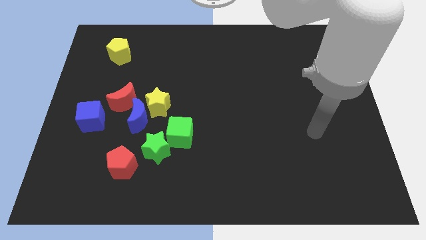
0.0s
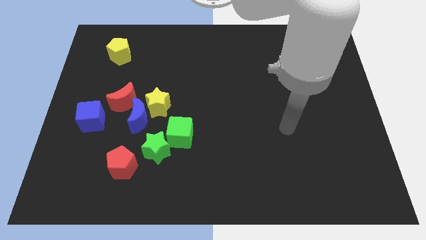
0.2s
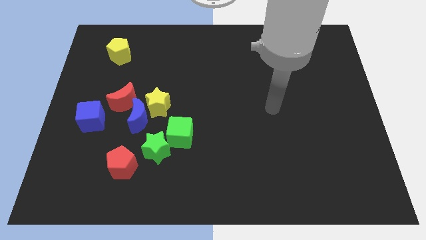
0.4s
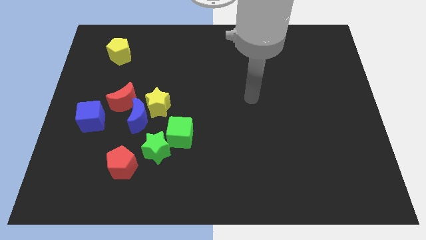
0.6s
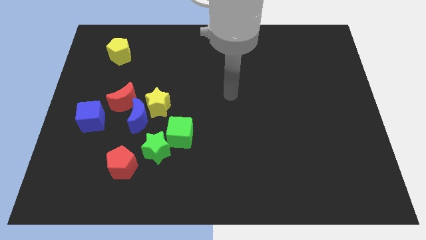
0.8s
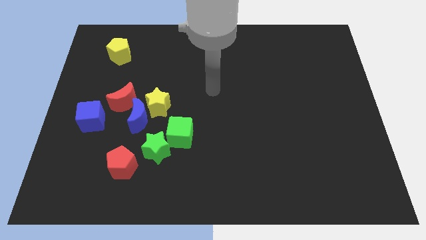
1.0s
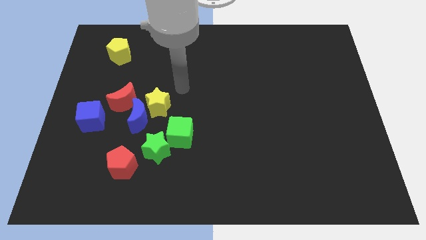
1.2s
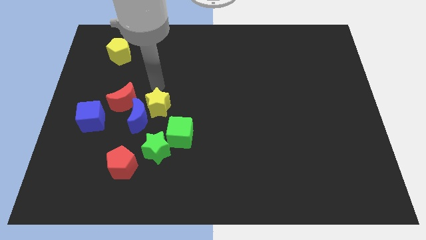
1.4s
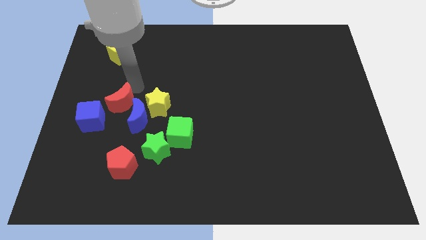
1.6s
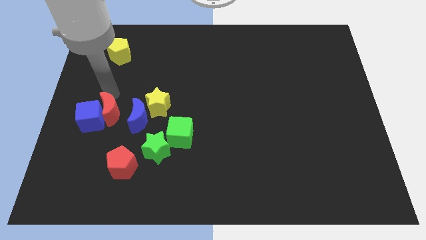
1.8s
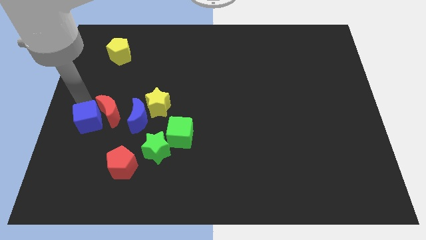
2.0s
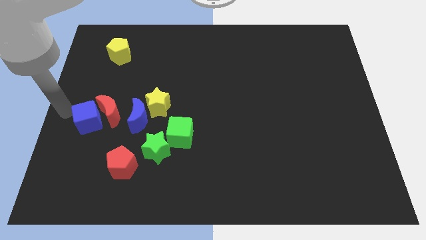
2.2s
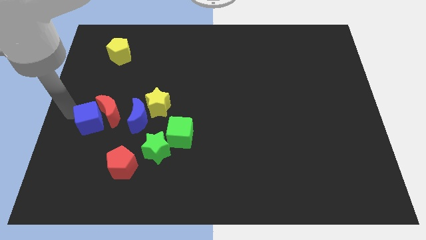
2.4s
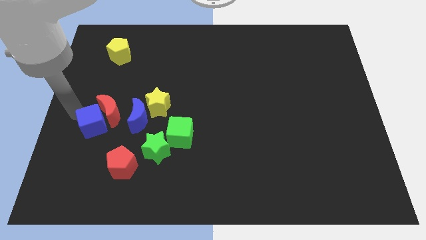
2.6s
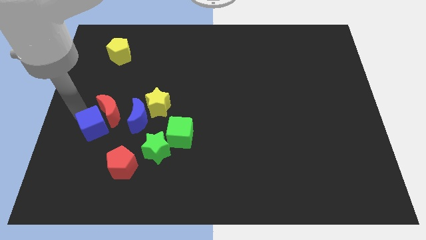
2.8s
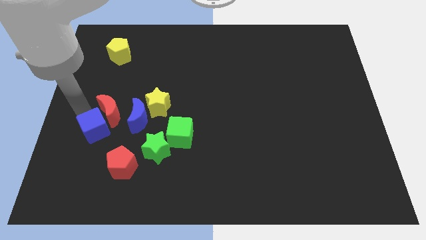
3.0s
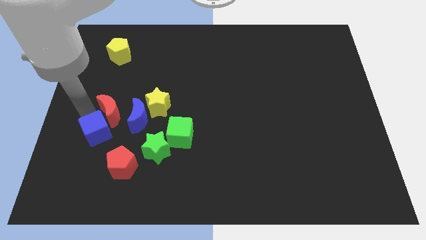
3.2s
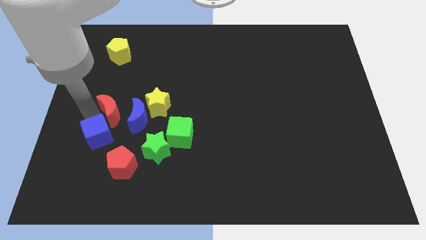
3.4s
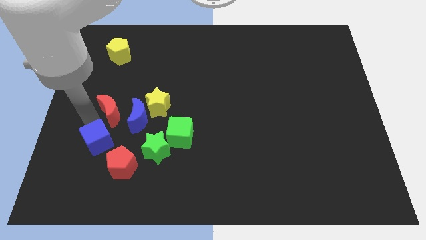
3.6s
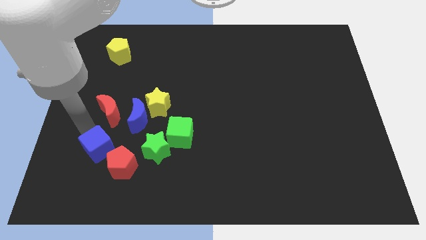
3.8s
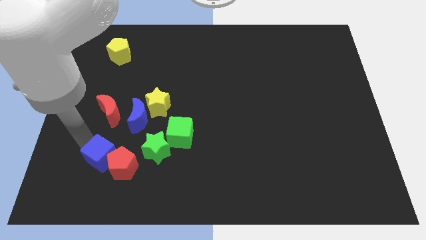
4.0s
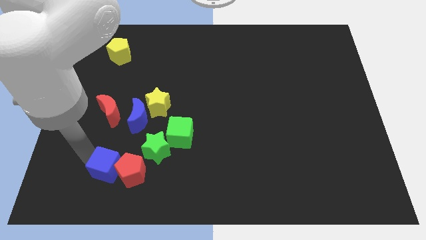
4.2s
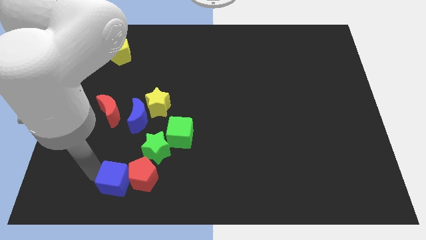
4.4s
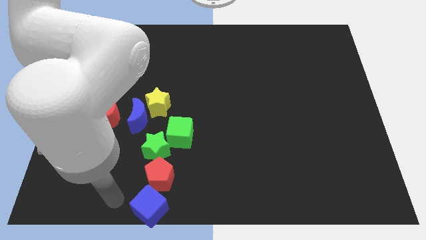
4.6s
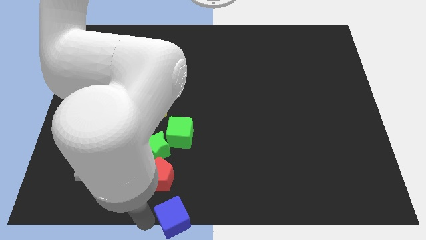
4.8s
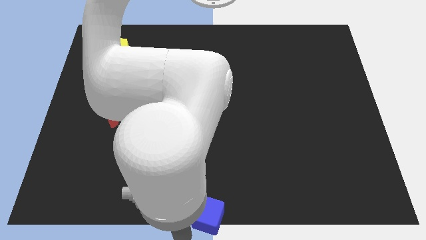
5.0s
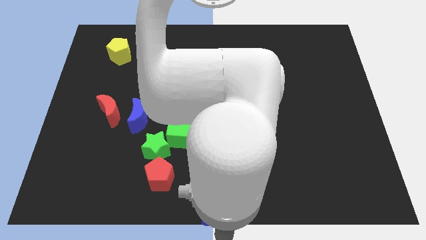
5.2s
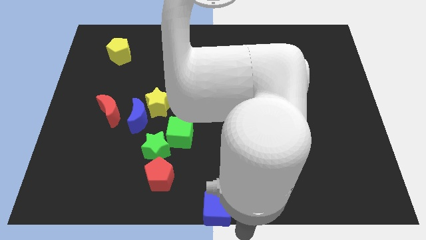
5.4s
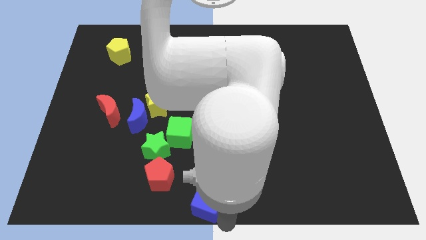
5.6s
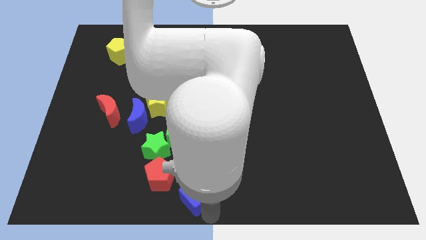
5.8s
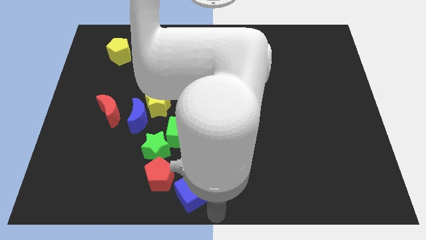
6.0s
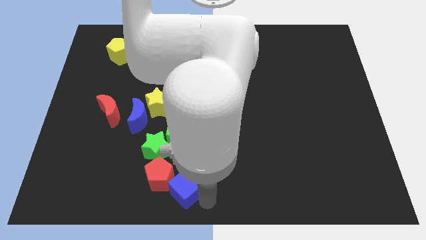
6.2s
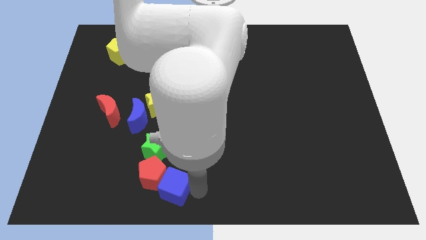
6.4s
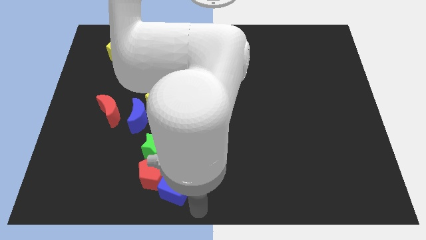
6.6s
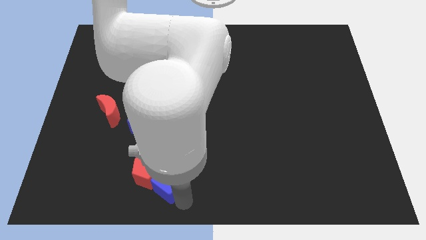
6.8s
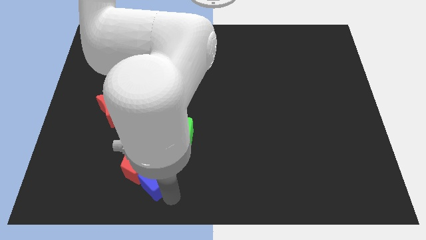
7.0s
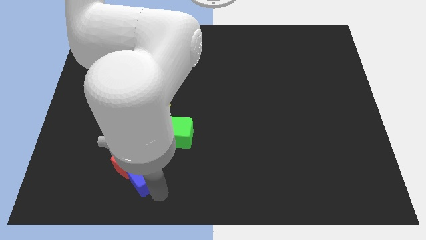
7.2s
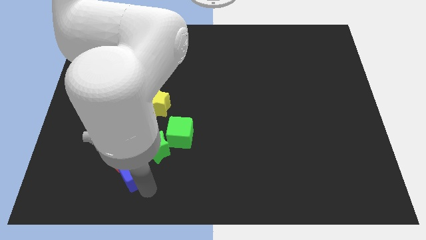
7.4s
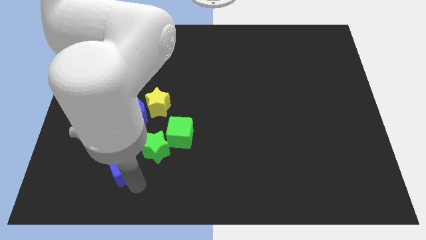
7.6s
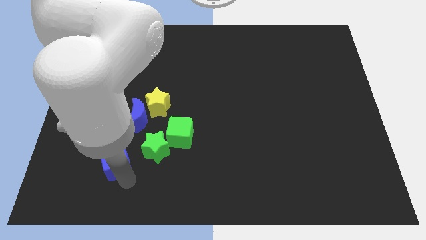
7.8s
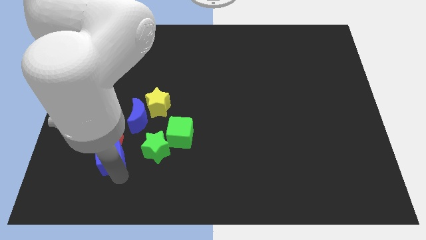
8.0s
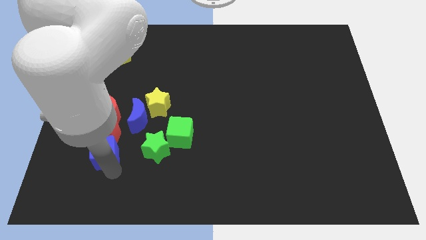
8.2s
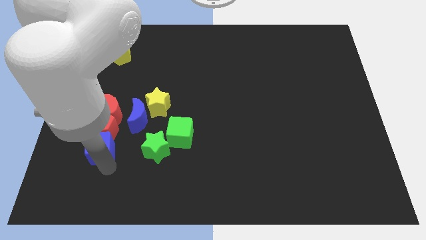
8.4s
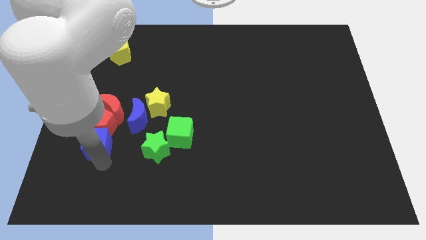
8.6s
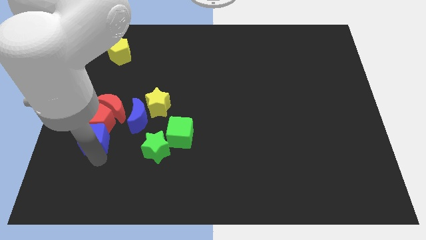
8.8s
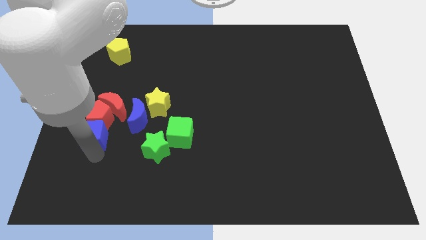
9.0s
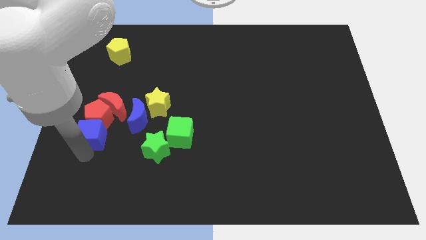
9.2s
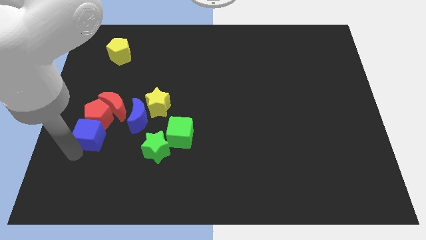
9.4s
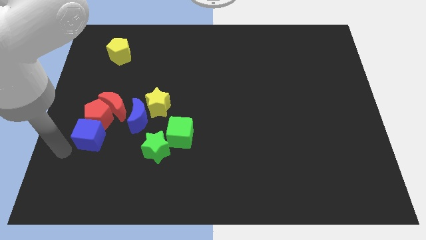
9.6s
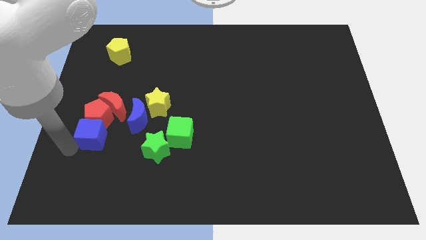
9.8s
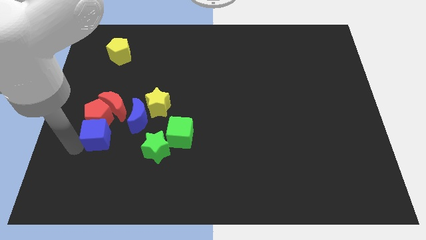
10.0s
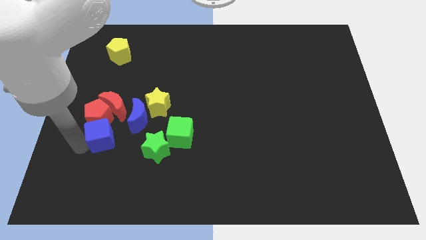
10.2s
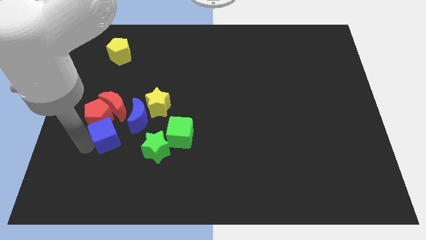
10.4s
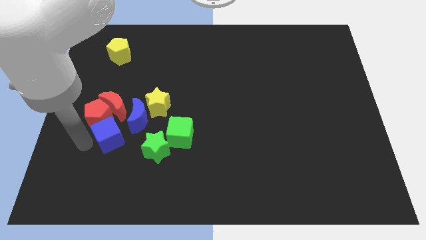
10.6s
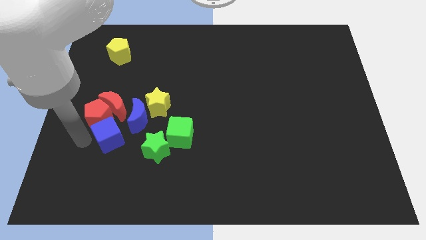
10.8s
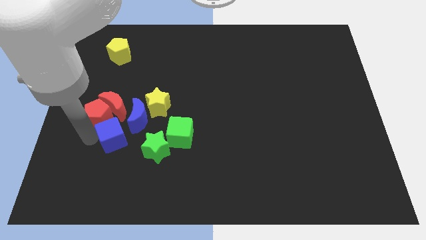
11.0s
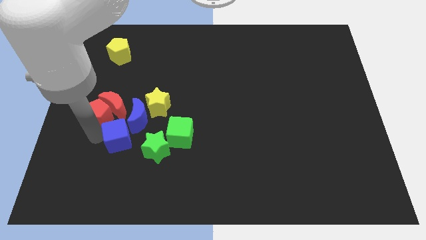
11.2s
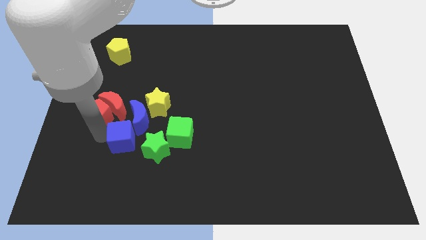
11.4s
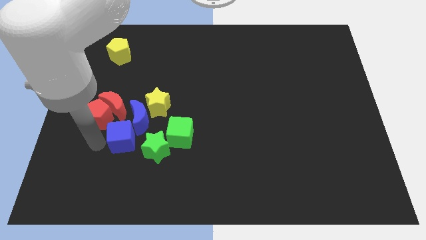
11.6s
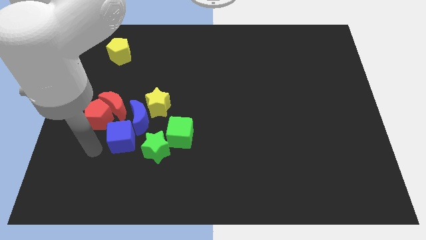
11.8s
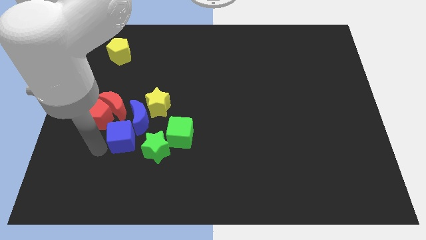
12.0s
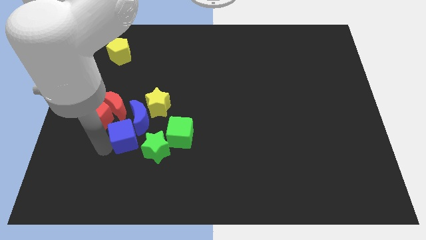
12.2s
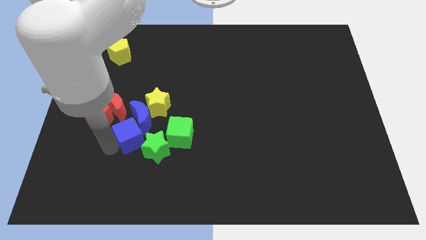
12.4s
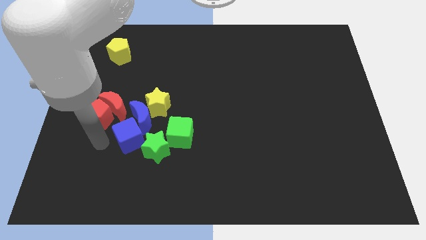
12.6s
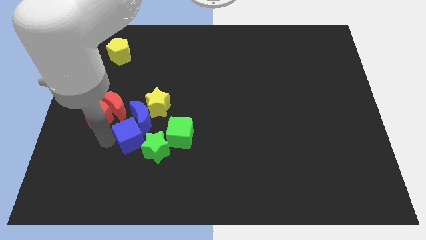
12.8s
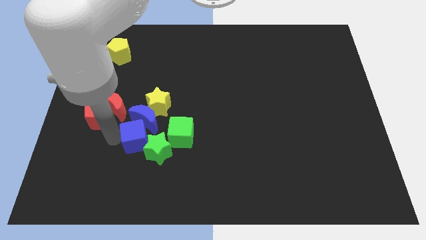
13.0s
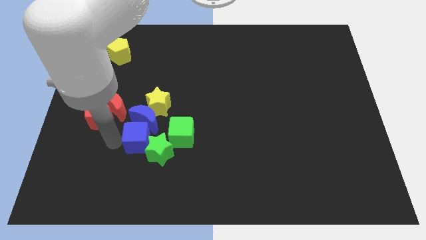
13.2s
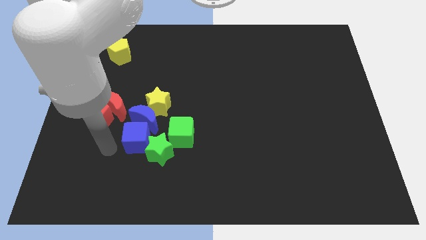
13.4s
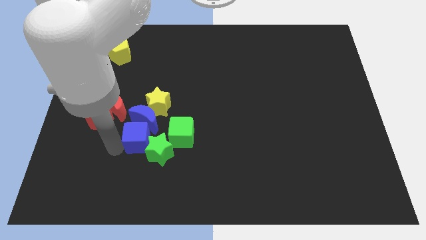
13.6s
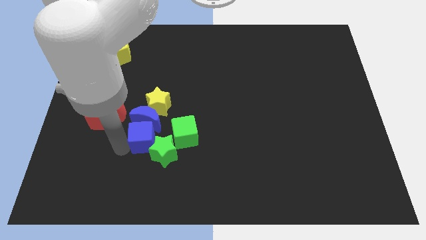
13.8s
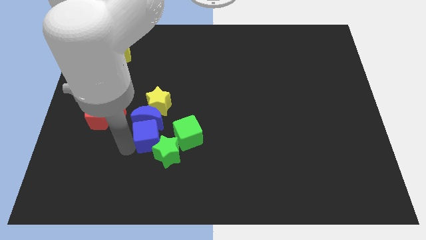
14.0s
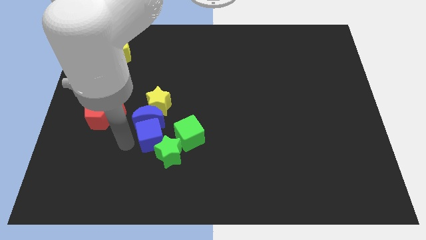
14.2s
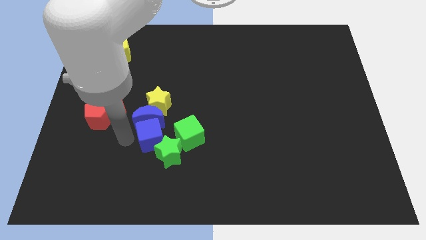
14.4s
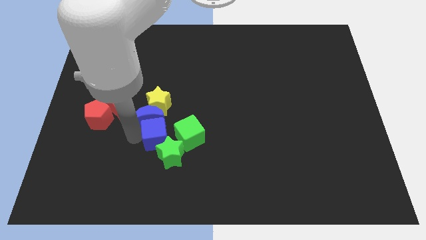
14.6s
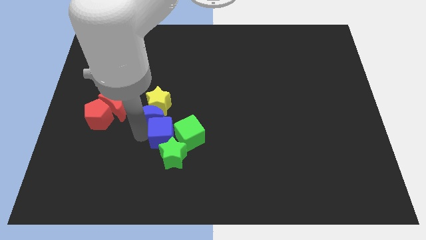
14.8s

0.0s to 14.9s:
move the blue cube to the green cube

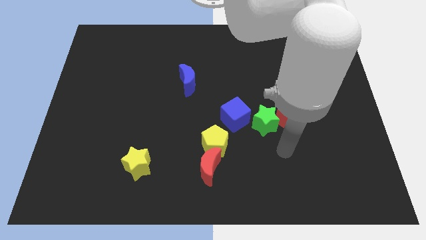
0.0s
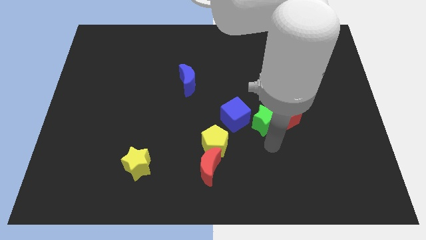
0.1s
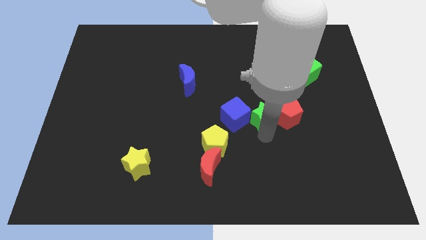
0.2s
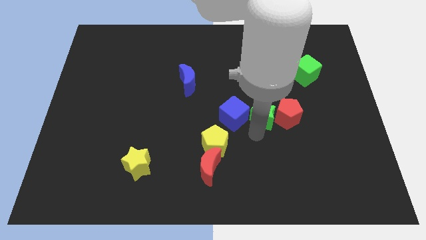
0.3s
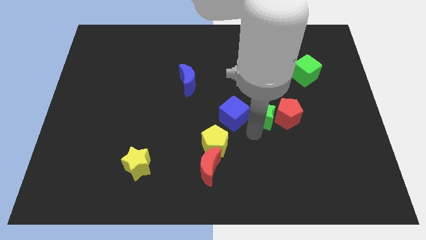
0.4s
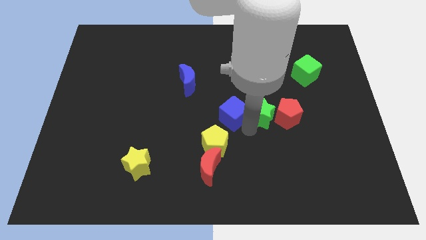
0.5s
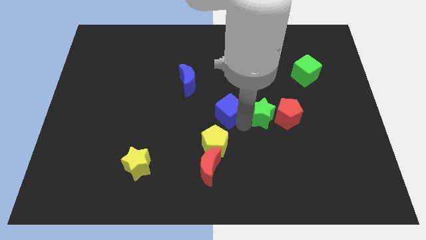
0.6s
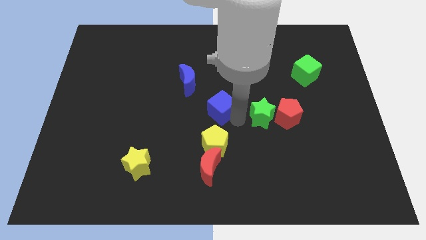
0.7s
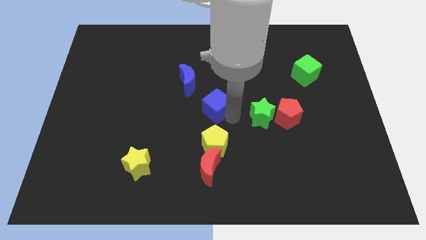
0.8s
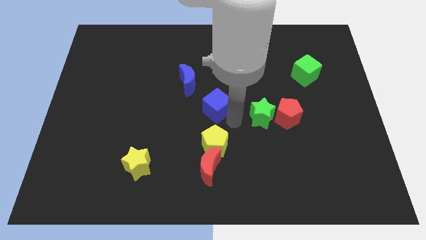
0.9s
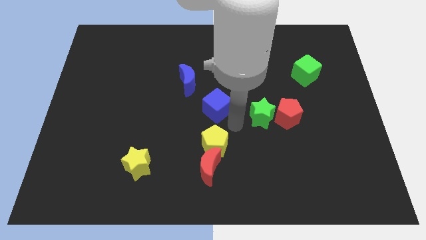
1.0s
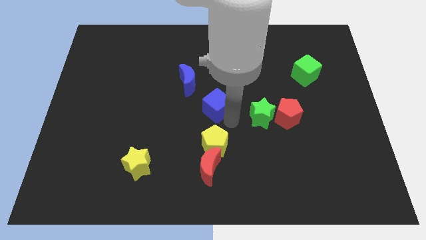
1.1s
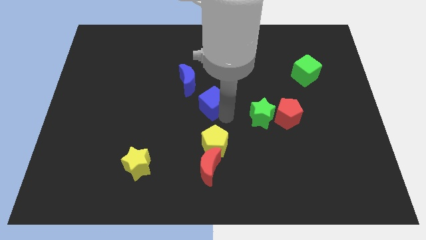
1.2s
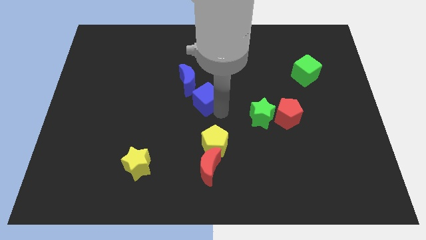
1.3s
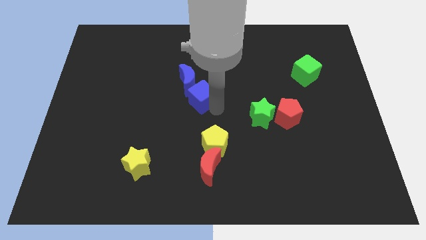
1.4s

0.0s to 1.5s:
slide the blue cube next to the blue moon
